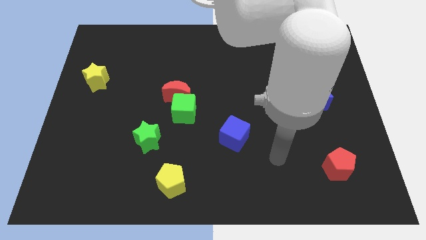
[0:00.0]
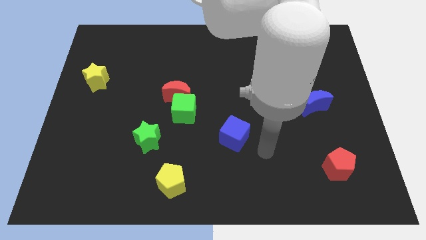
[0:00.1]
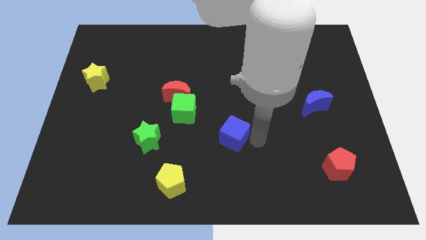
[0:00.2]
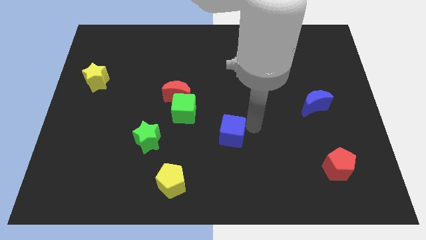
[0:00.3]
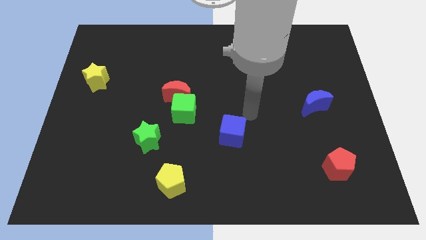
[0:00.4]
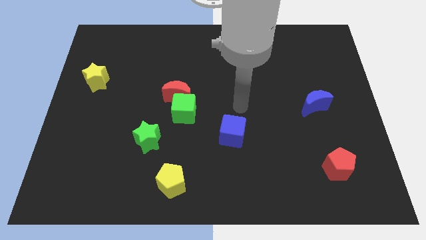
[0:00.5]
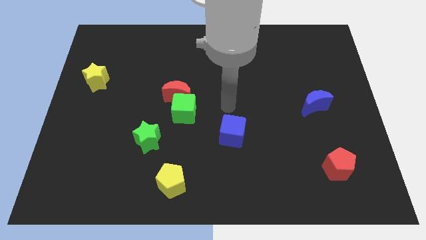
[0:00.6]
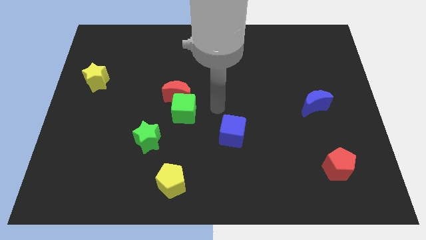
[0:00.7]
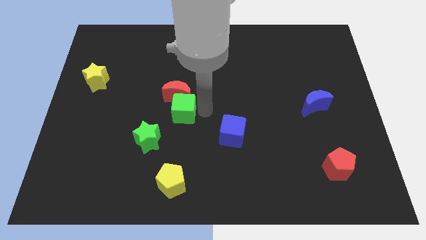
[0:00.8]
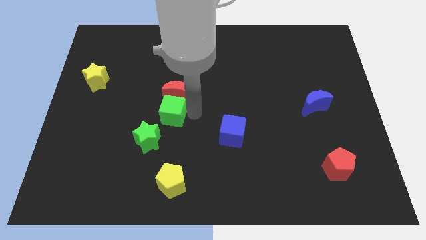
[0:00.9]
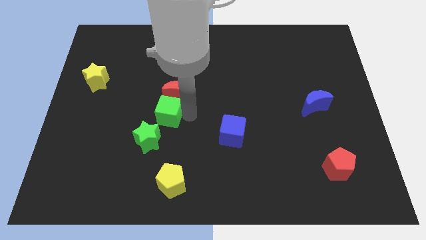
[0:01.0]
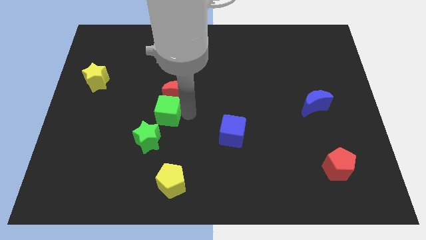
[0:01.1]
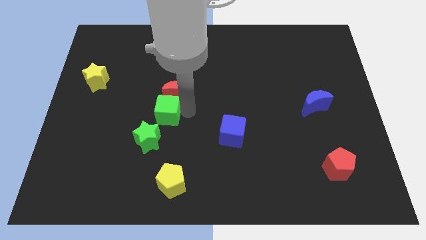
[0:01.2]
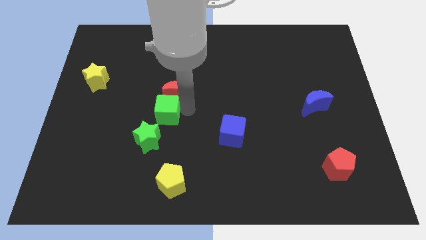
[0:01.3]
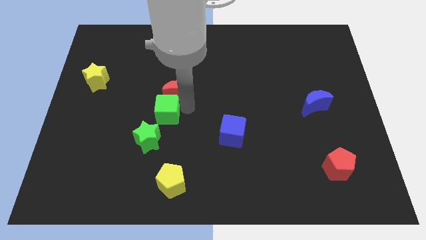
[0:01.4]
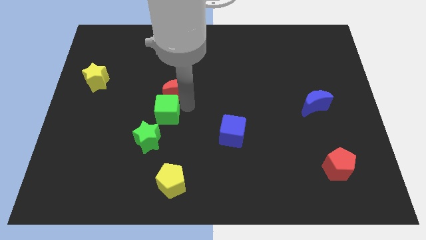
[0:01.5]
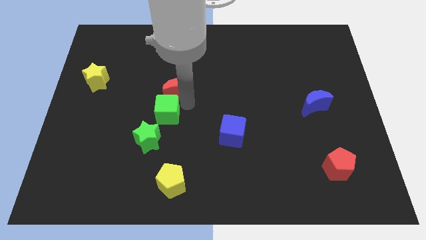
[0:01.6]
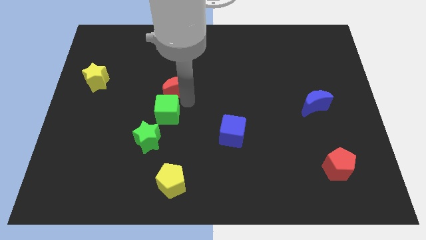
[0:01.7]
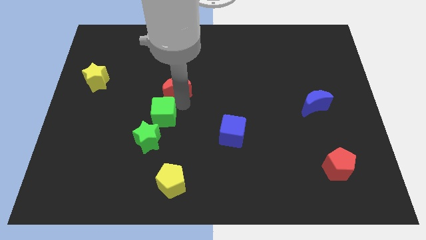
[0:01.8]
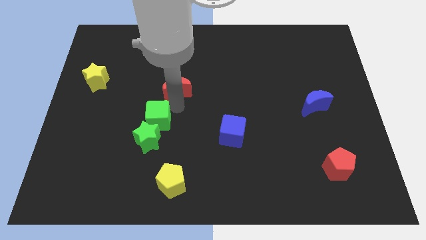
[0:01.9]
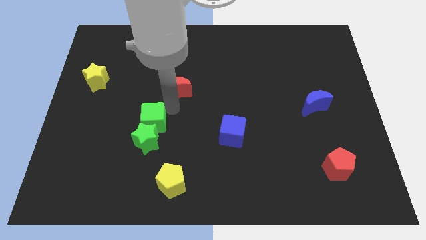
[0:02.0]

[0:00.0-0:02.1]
move the red moon away from the green cube

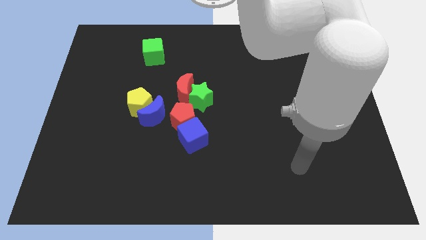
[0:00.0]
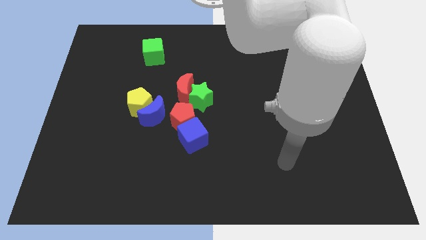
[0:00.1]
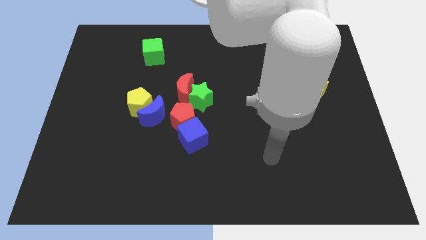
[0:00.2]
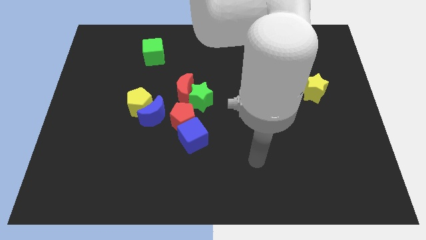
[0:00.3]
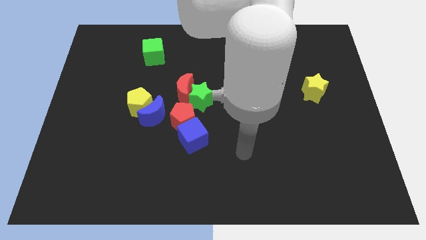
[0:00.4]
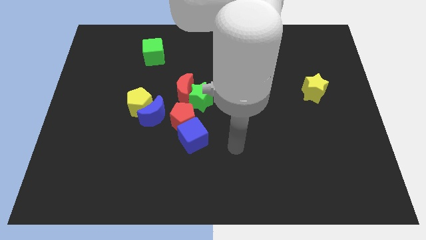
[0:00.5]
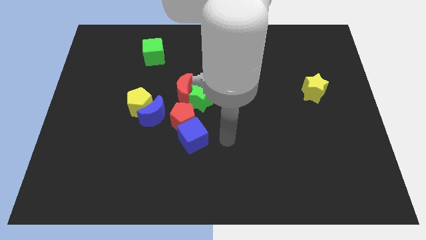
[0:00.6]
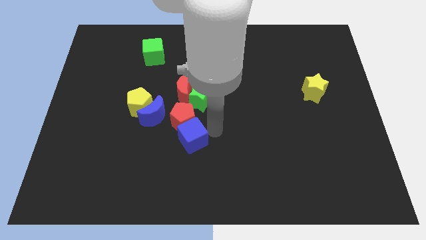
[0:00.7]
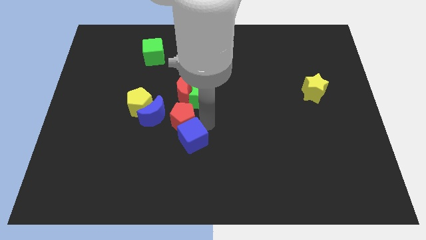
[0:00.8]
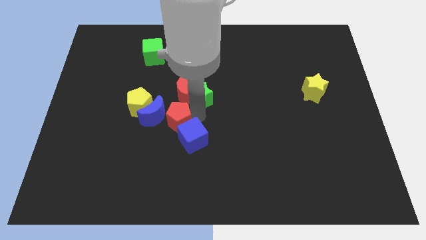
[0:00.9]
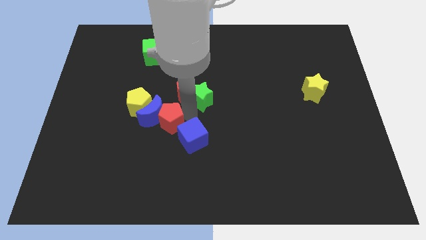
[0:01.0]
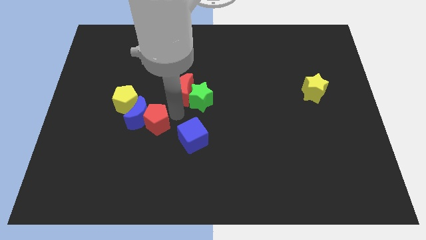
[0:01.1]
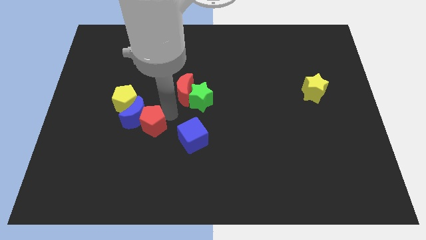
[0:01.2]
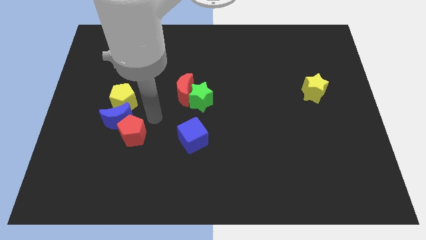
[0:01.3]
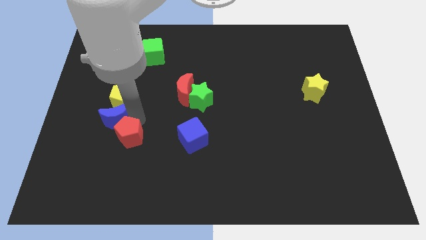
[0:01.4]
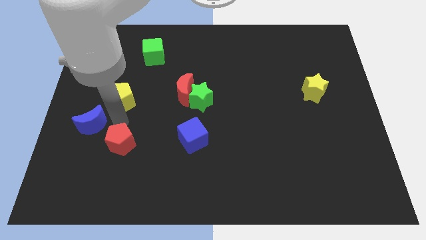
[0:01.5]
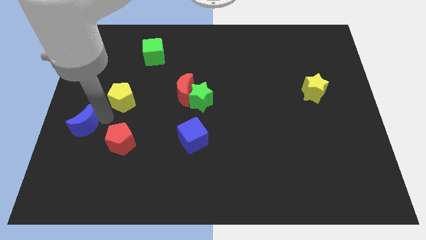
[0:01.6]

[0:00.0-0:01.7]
move the yellow pentagon away from the blue moon

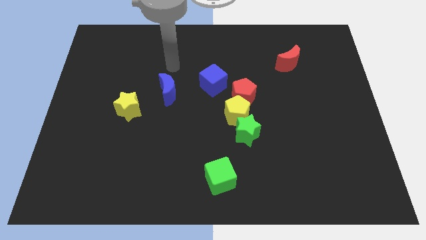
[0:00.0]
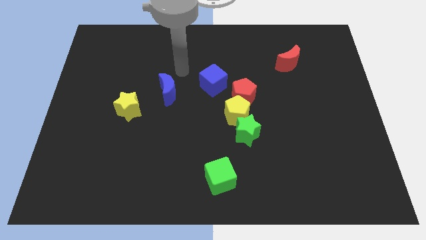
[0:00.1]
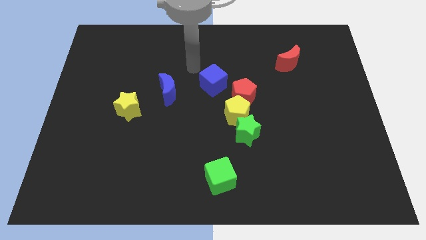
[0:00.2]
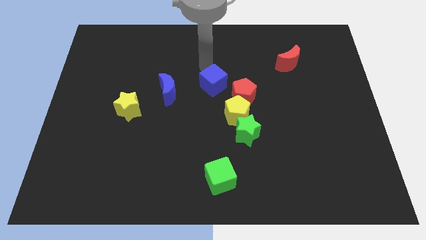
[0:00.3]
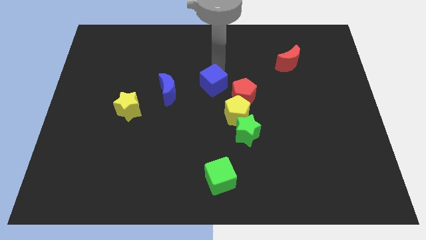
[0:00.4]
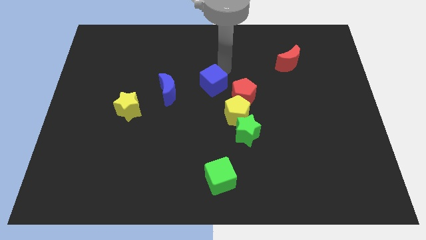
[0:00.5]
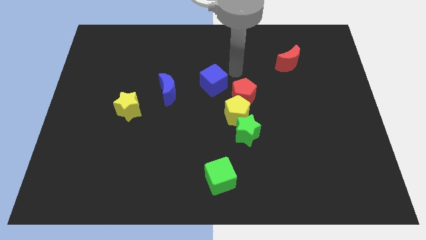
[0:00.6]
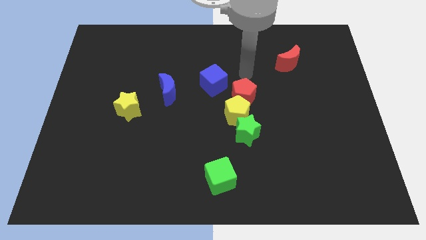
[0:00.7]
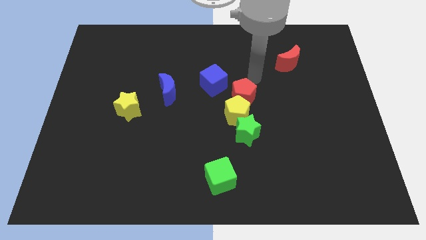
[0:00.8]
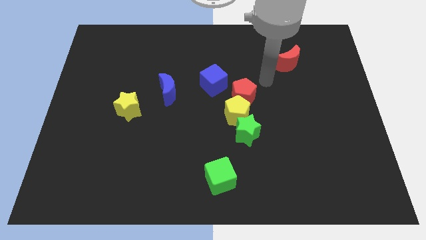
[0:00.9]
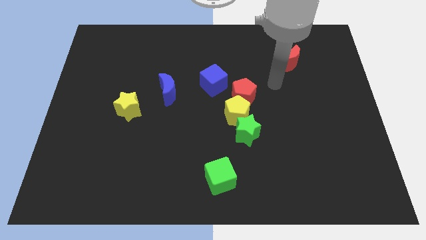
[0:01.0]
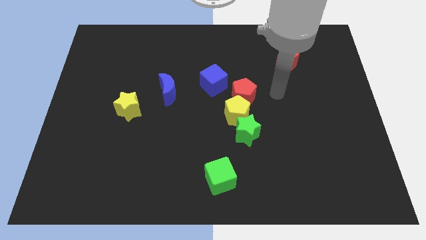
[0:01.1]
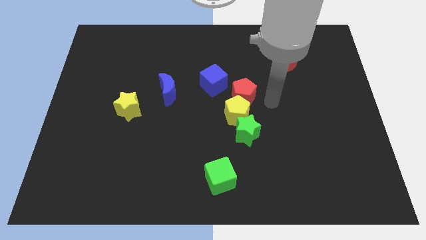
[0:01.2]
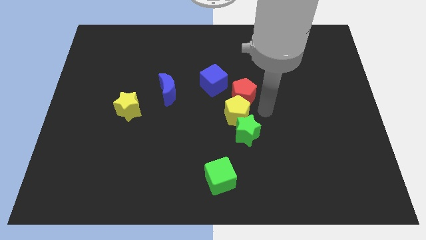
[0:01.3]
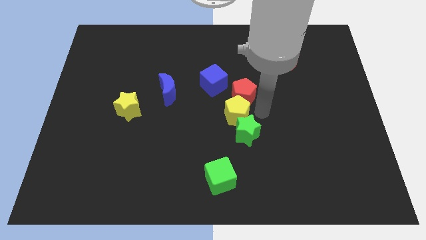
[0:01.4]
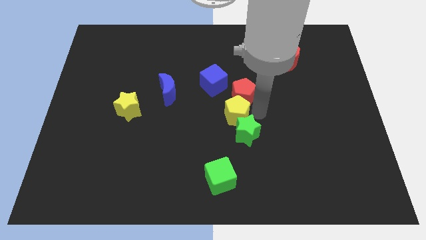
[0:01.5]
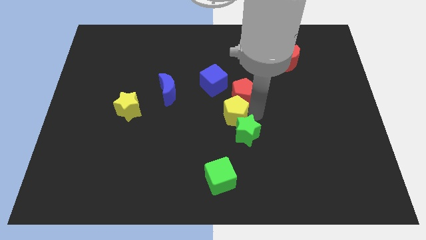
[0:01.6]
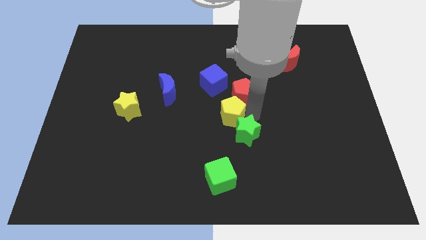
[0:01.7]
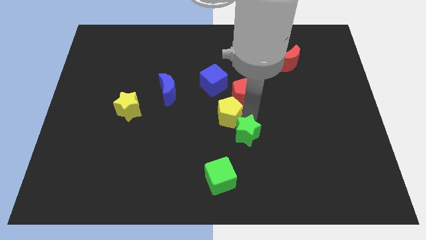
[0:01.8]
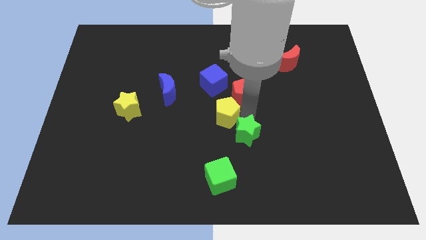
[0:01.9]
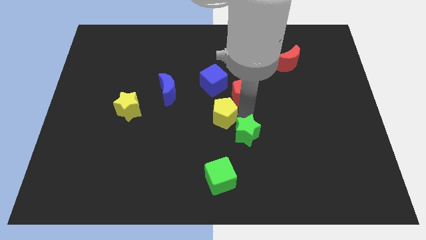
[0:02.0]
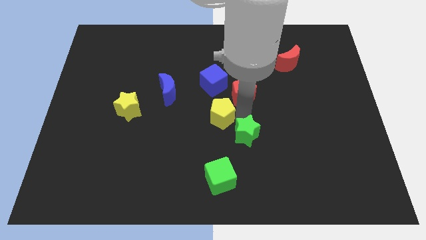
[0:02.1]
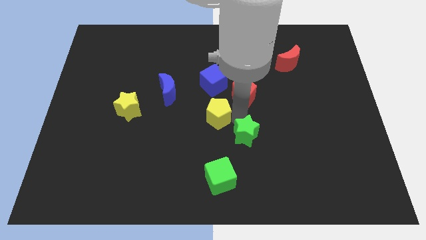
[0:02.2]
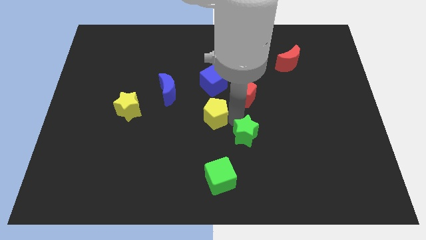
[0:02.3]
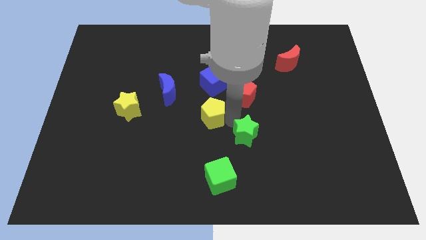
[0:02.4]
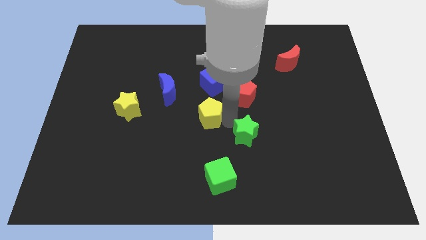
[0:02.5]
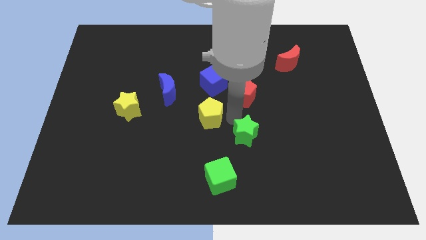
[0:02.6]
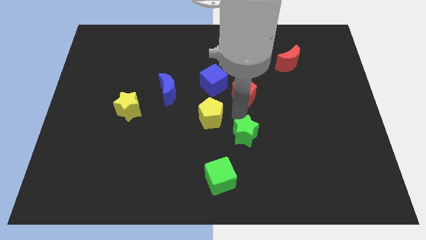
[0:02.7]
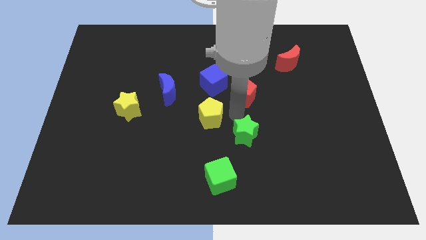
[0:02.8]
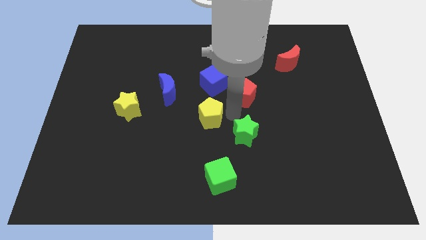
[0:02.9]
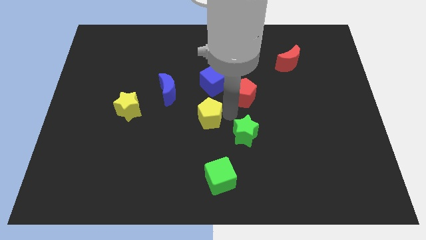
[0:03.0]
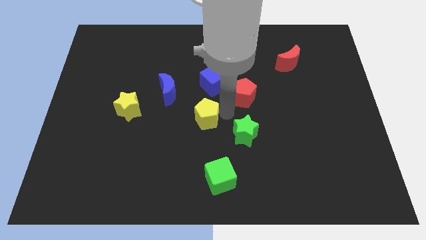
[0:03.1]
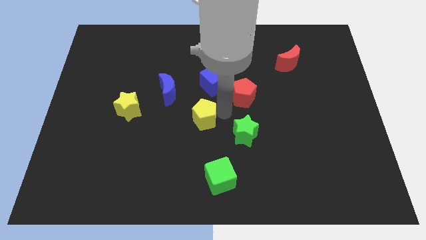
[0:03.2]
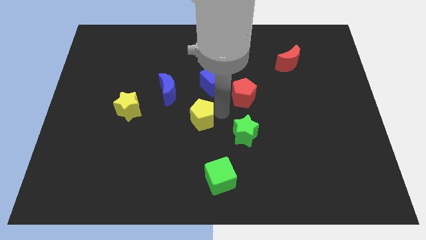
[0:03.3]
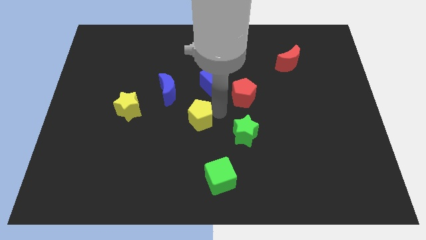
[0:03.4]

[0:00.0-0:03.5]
separate the yellow pentagon from the red pentagon and green star

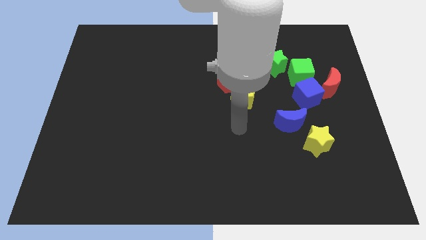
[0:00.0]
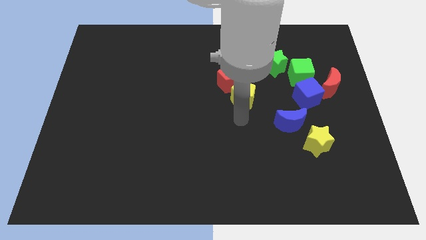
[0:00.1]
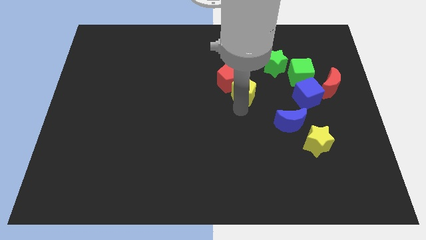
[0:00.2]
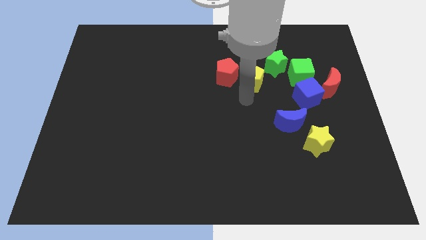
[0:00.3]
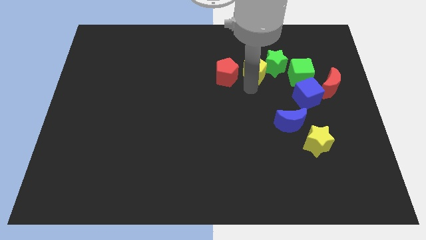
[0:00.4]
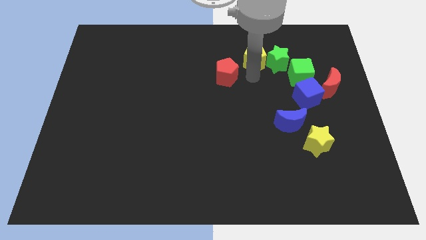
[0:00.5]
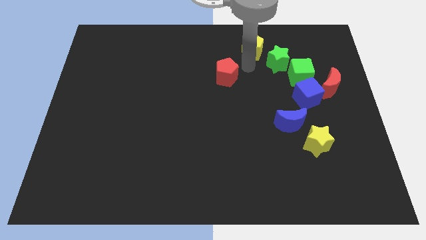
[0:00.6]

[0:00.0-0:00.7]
move the red pentagon away from the yellow pentagon

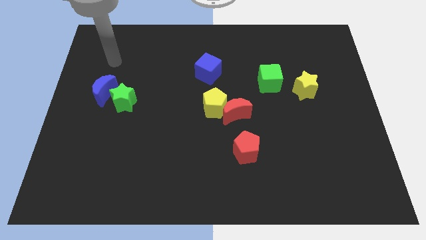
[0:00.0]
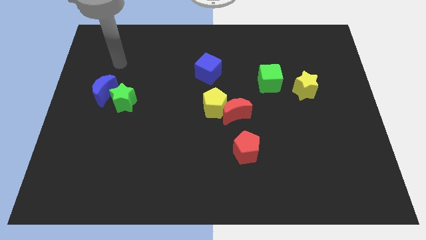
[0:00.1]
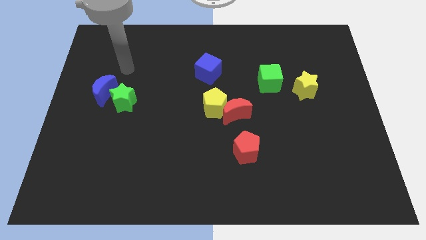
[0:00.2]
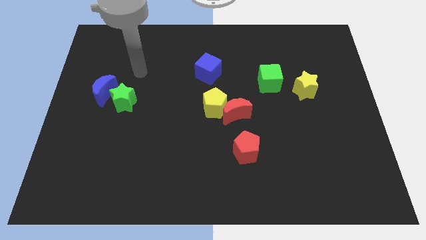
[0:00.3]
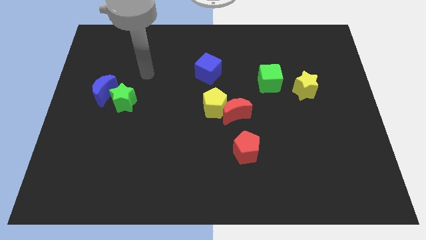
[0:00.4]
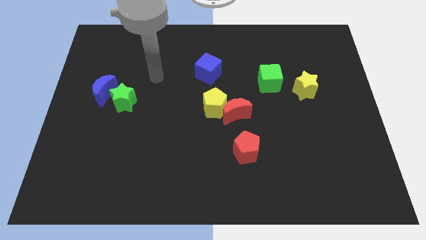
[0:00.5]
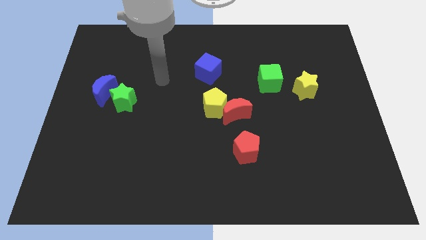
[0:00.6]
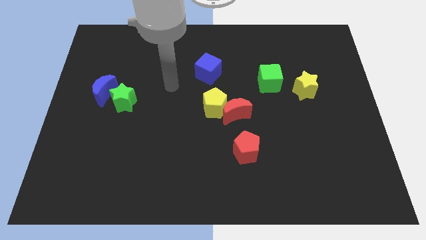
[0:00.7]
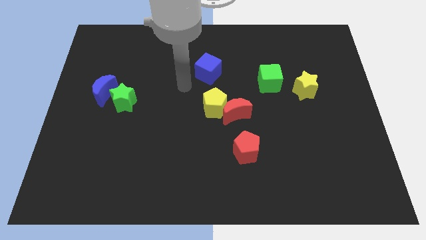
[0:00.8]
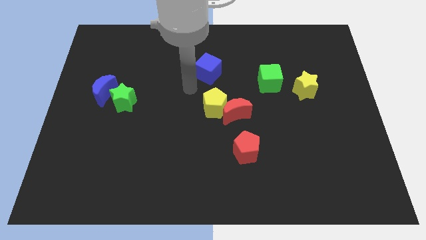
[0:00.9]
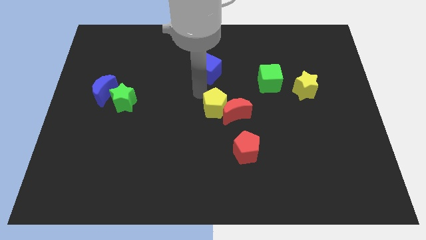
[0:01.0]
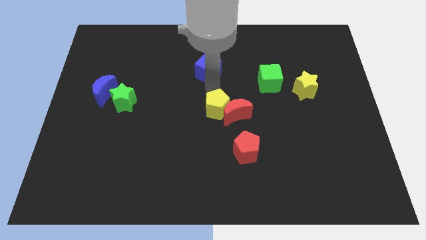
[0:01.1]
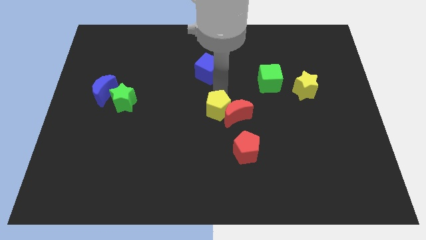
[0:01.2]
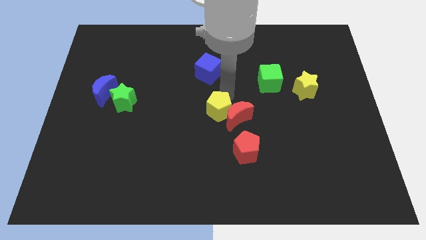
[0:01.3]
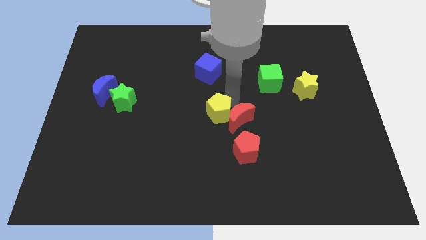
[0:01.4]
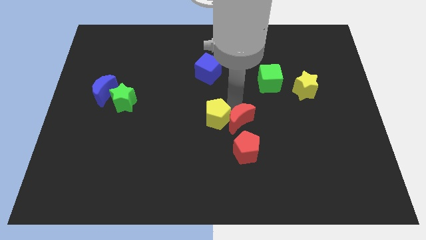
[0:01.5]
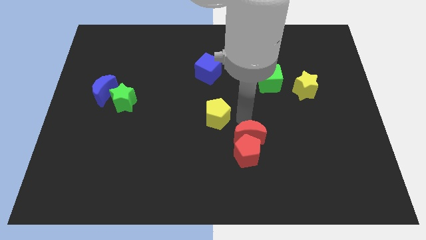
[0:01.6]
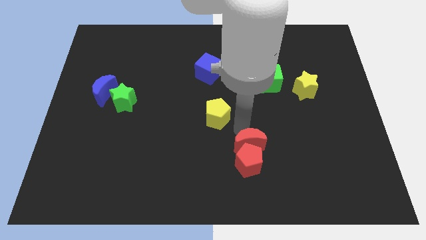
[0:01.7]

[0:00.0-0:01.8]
separate the yellow pentagon from the red moon
